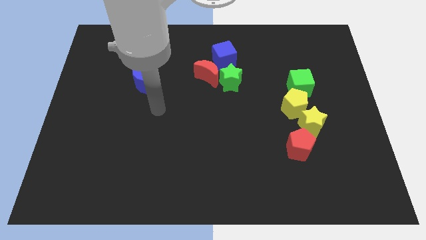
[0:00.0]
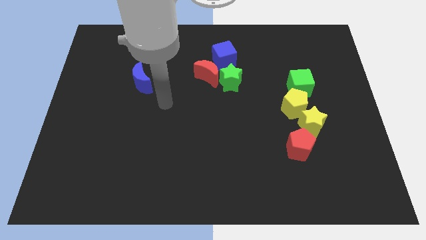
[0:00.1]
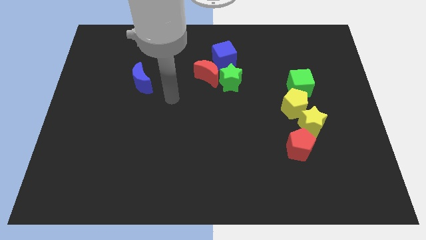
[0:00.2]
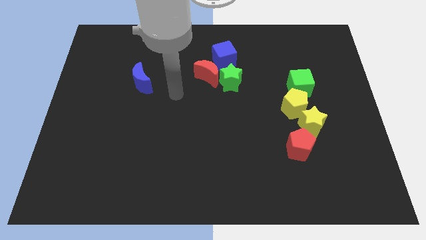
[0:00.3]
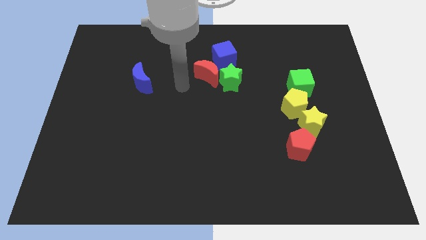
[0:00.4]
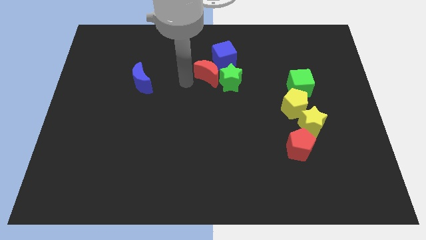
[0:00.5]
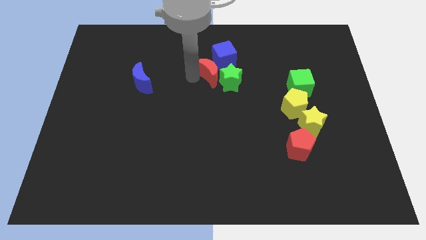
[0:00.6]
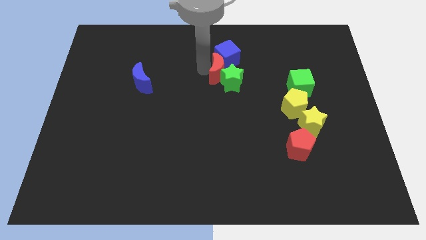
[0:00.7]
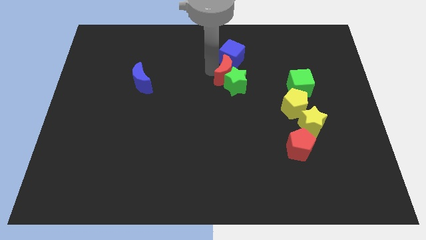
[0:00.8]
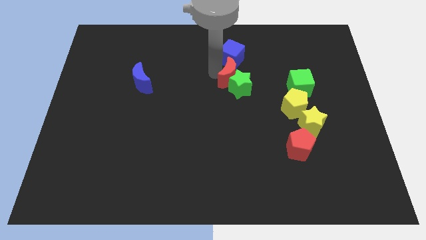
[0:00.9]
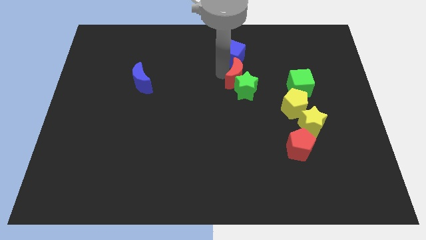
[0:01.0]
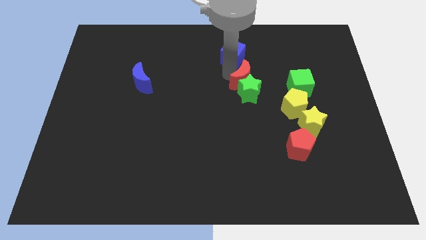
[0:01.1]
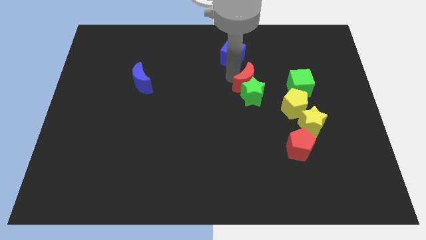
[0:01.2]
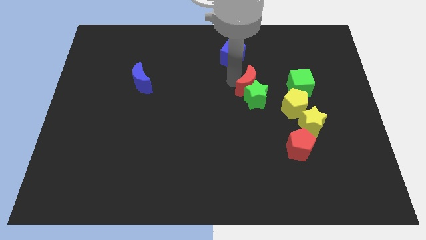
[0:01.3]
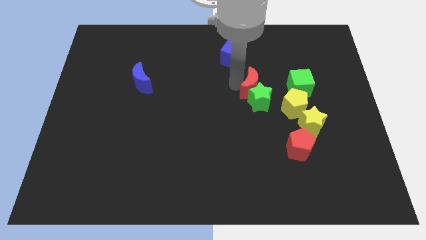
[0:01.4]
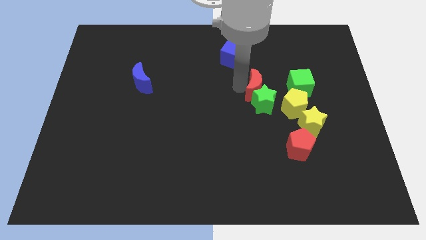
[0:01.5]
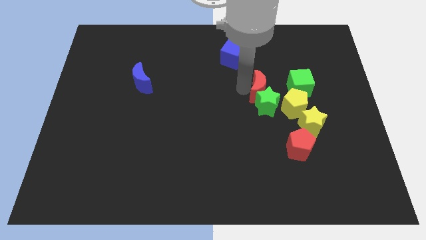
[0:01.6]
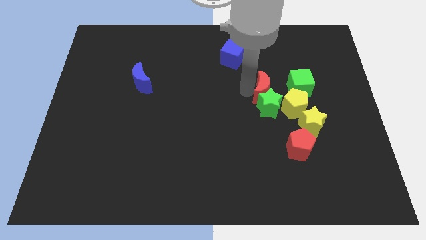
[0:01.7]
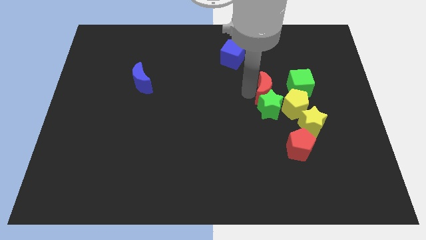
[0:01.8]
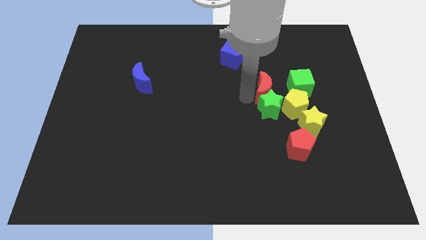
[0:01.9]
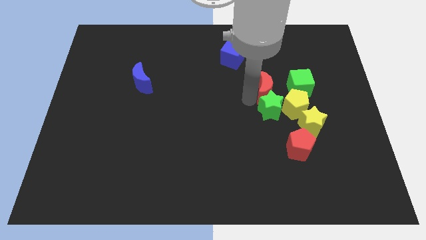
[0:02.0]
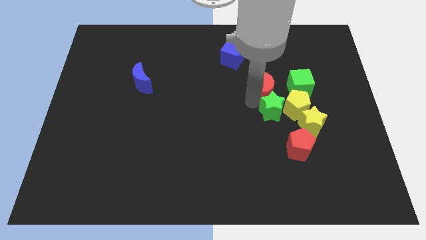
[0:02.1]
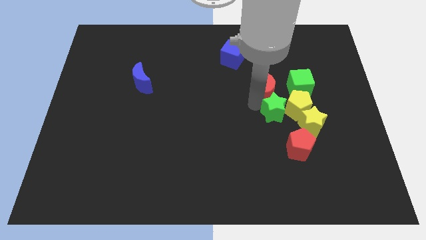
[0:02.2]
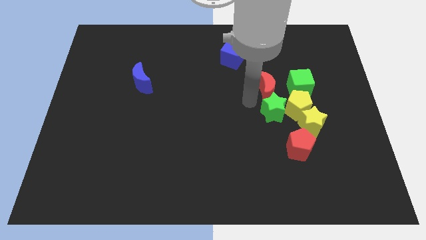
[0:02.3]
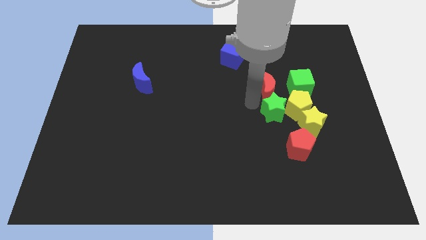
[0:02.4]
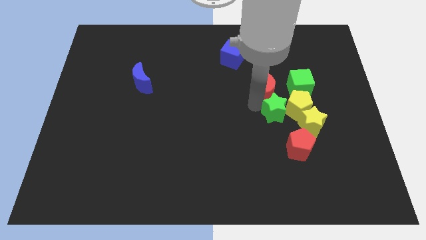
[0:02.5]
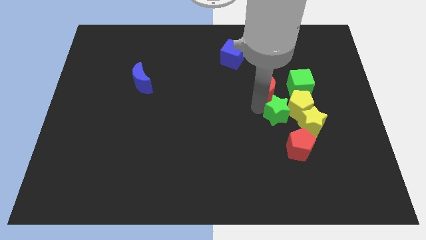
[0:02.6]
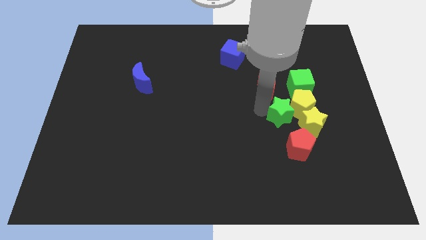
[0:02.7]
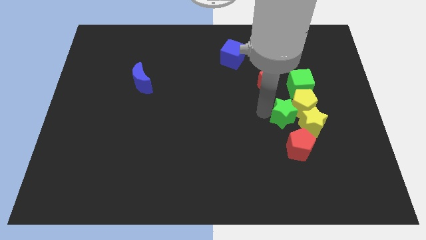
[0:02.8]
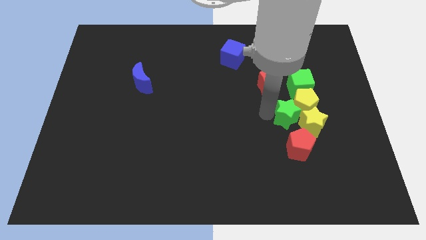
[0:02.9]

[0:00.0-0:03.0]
push the green star next to the yellow star

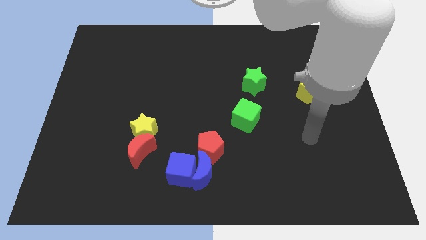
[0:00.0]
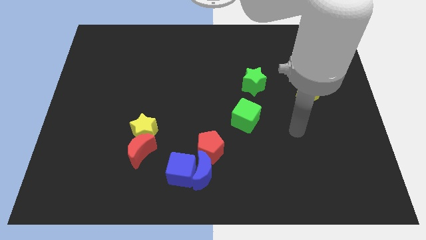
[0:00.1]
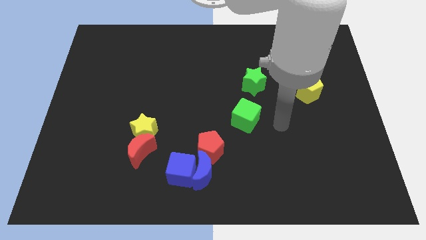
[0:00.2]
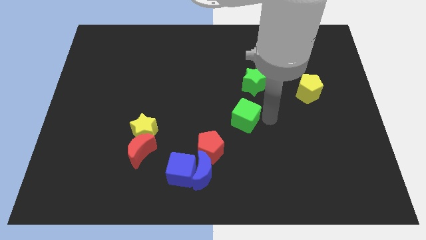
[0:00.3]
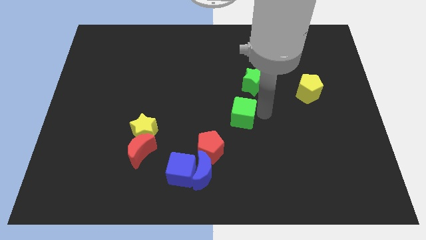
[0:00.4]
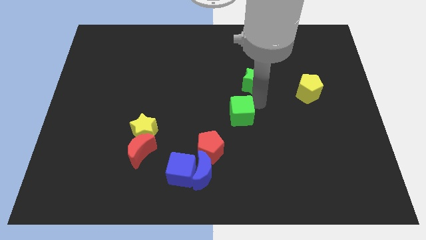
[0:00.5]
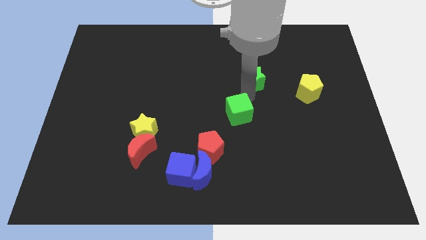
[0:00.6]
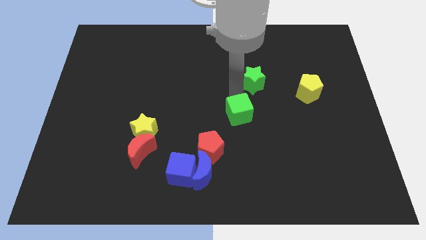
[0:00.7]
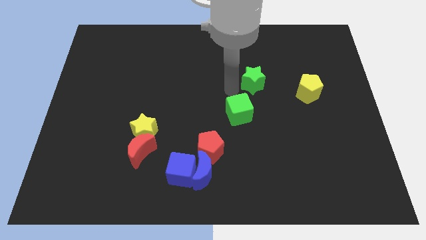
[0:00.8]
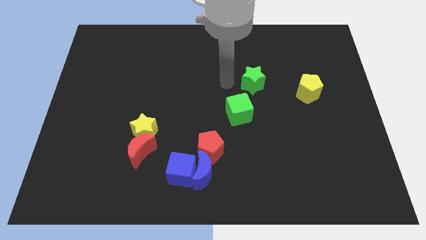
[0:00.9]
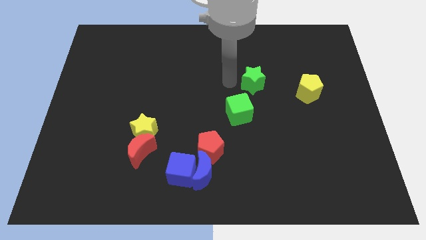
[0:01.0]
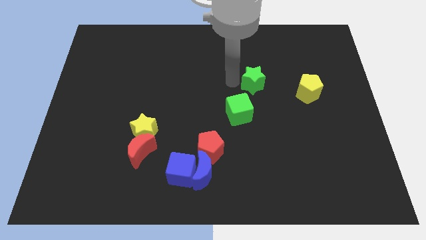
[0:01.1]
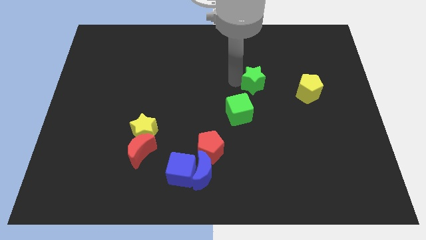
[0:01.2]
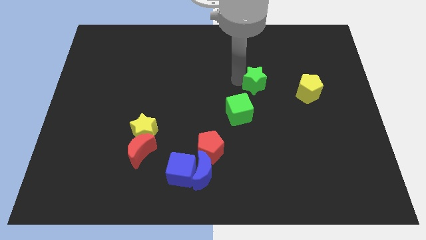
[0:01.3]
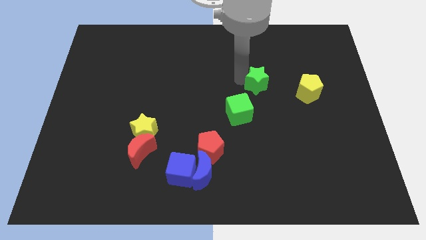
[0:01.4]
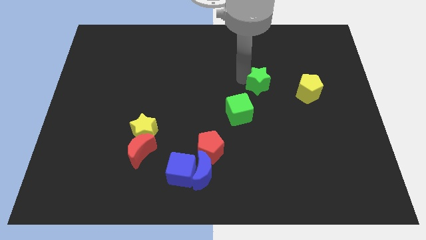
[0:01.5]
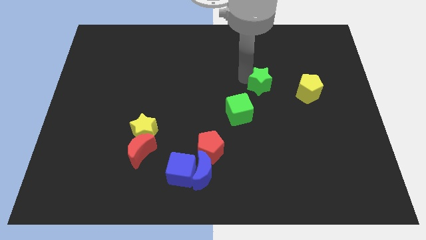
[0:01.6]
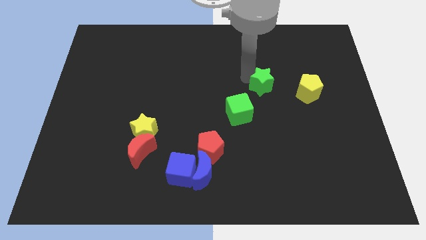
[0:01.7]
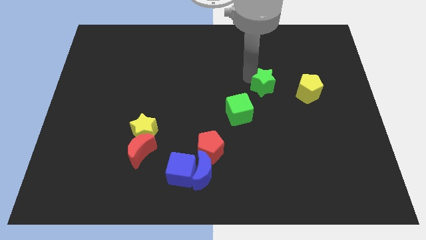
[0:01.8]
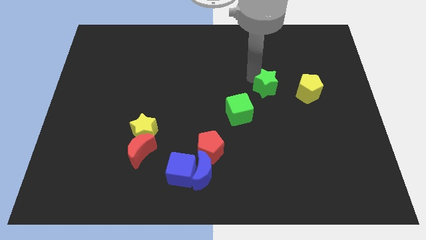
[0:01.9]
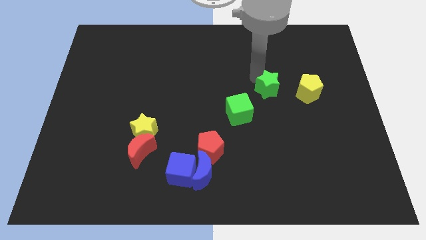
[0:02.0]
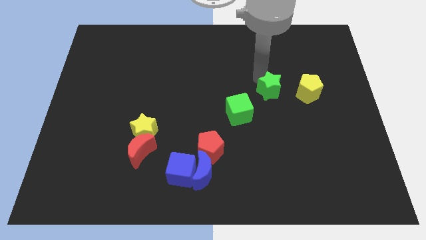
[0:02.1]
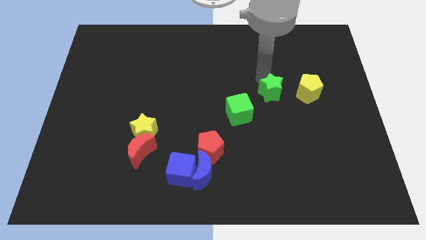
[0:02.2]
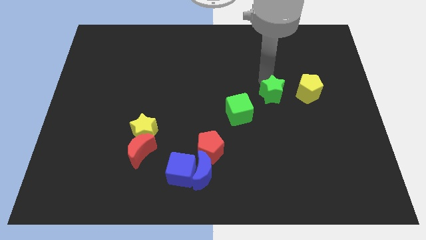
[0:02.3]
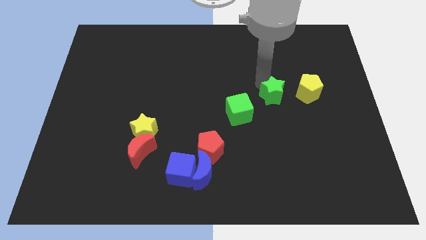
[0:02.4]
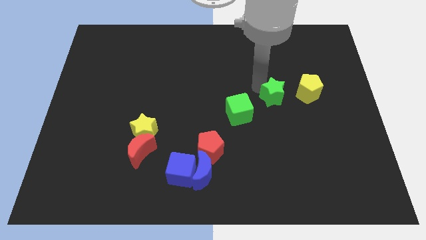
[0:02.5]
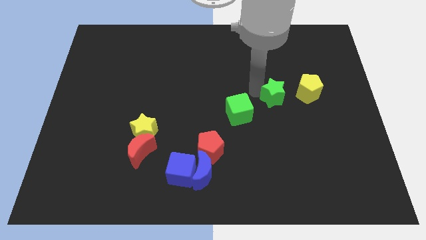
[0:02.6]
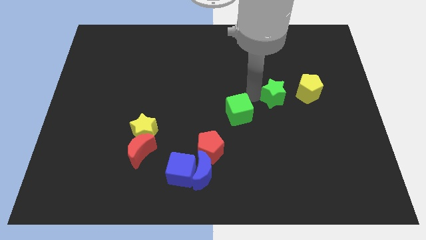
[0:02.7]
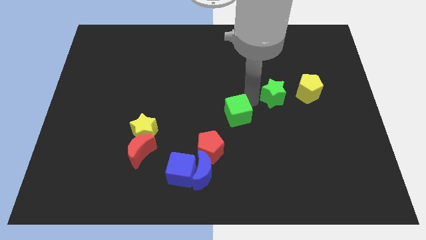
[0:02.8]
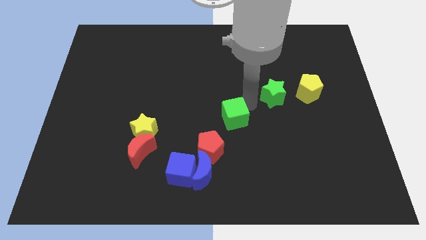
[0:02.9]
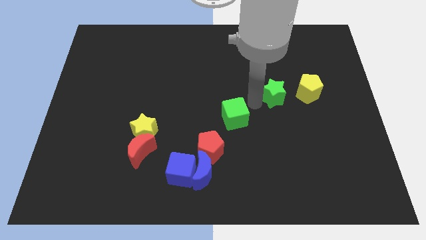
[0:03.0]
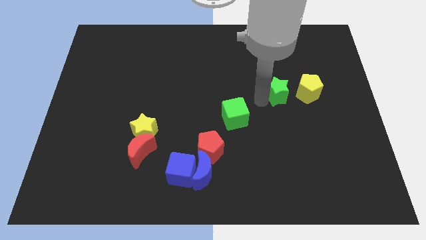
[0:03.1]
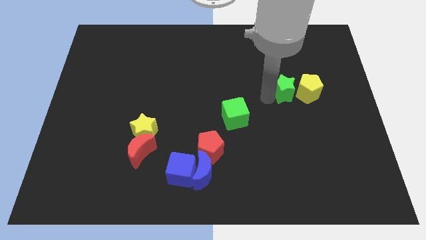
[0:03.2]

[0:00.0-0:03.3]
slide the green star to the yellow pentagon

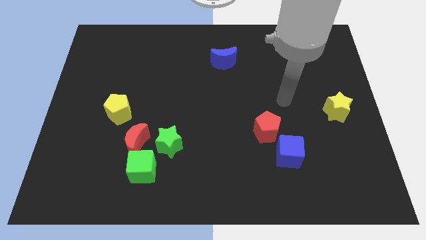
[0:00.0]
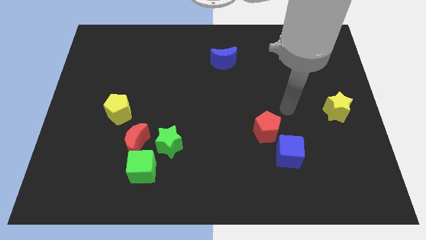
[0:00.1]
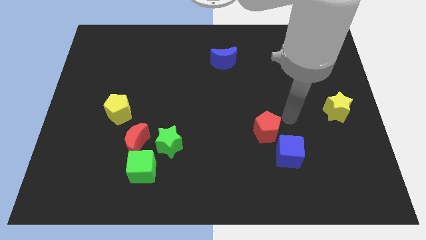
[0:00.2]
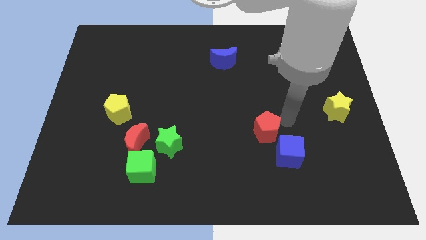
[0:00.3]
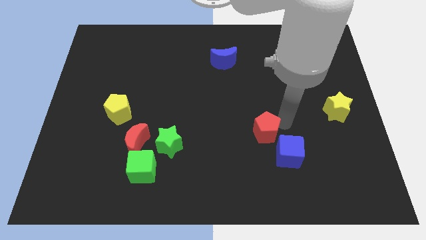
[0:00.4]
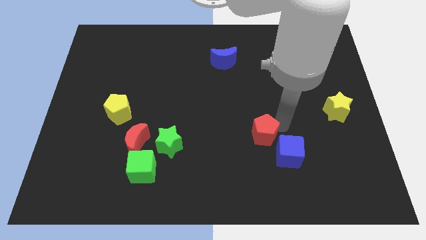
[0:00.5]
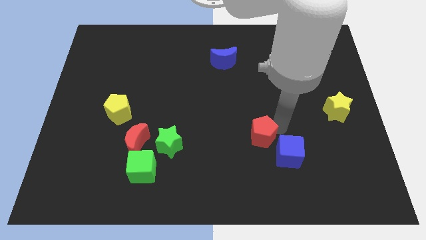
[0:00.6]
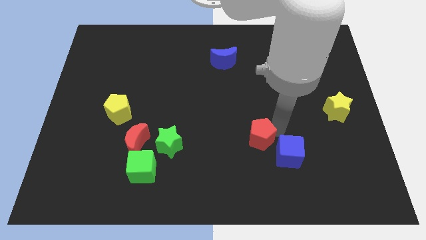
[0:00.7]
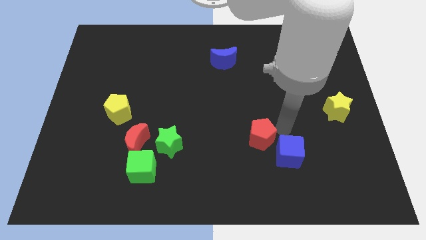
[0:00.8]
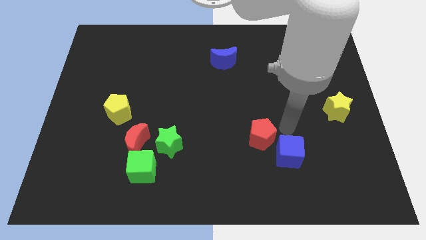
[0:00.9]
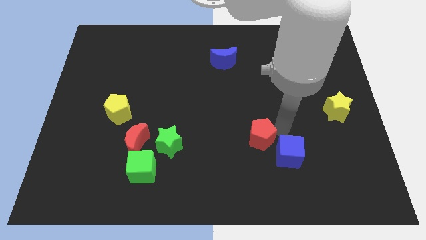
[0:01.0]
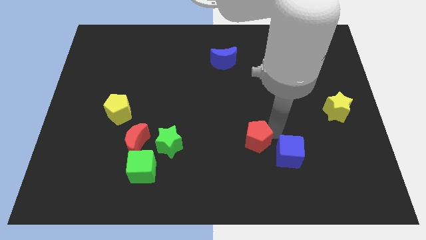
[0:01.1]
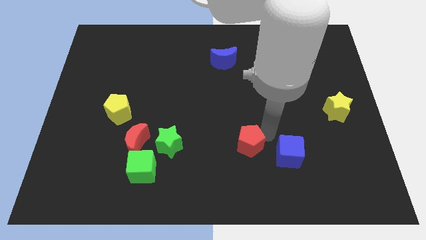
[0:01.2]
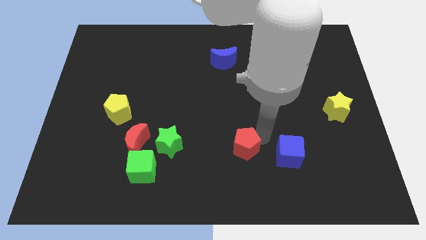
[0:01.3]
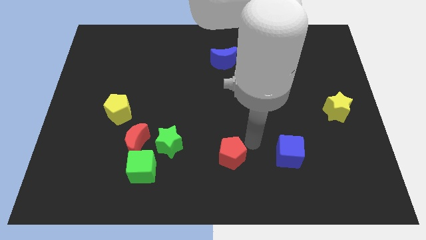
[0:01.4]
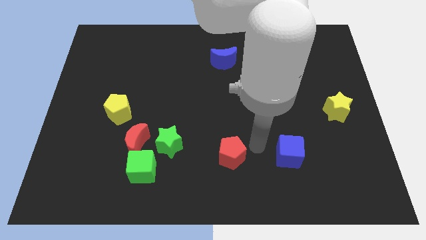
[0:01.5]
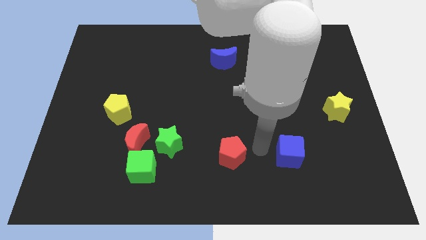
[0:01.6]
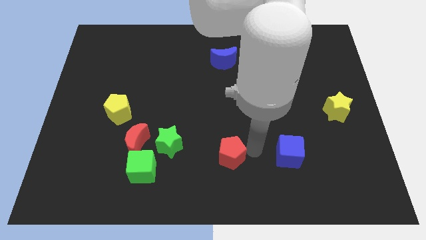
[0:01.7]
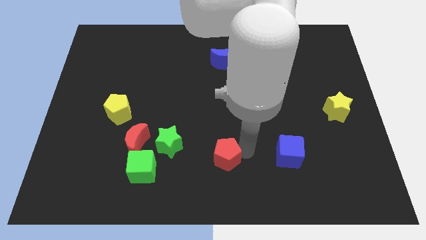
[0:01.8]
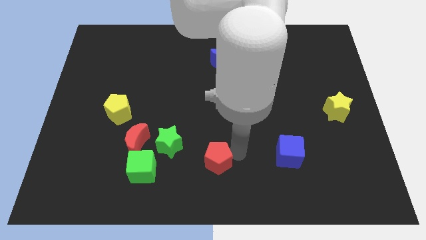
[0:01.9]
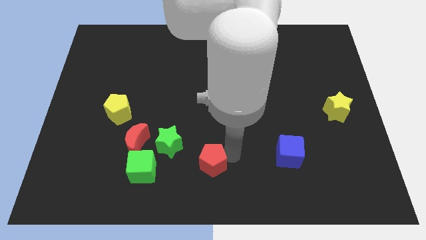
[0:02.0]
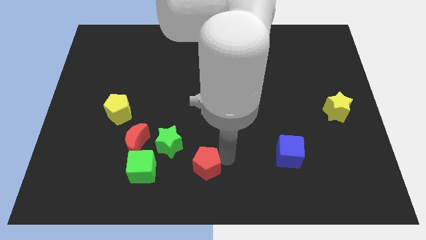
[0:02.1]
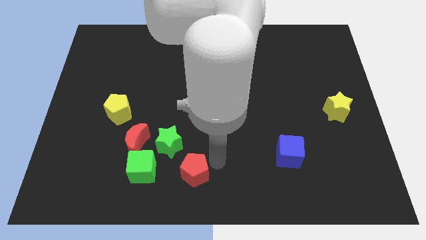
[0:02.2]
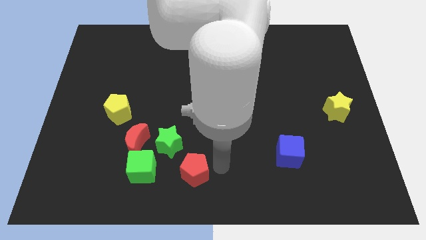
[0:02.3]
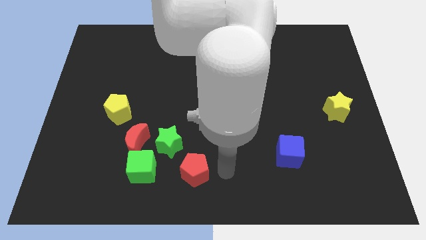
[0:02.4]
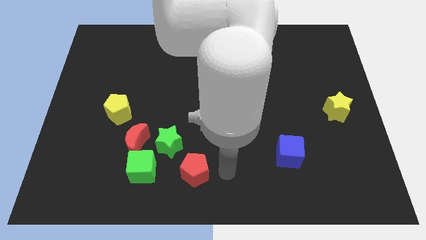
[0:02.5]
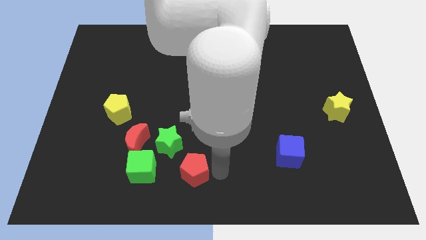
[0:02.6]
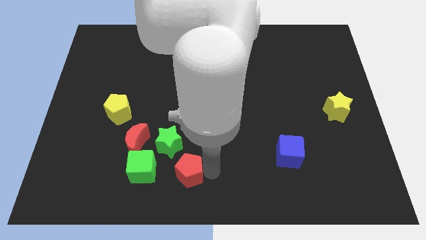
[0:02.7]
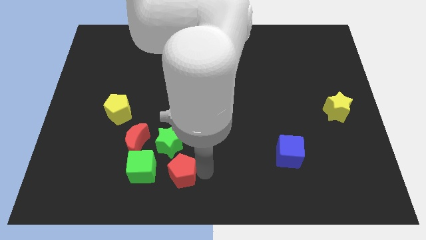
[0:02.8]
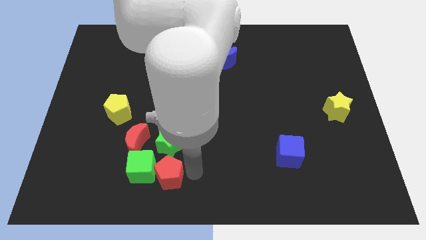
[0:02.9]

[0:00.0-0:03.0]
push the red pentagon close to the green cube
